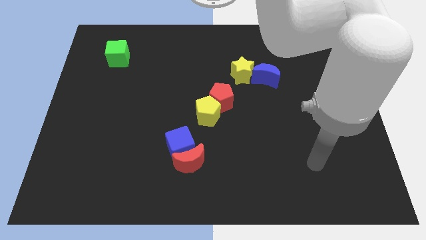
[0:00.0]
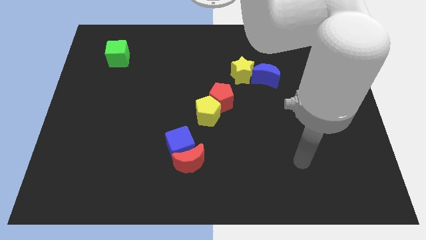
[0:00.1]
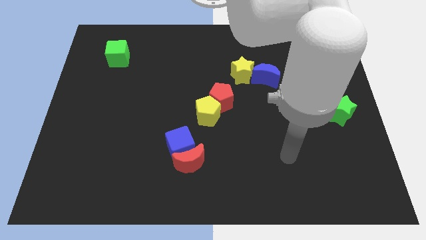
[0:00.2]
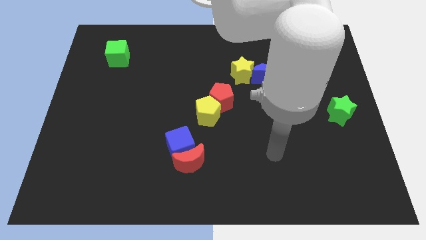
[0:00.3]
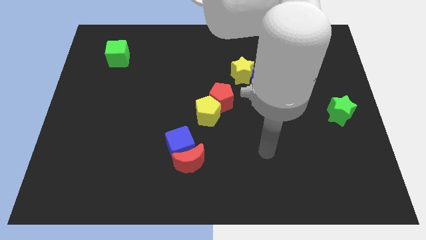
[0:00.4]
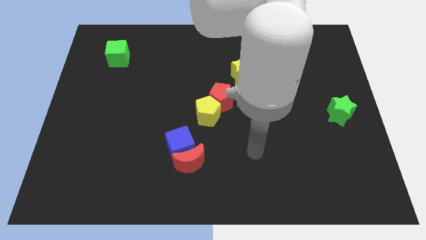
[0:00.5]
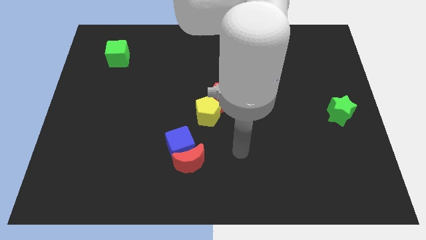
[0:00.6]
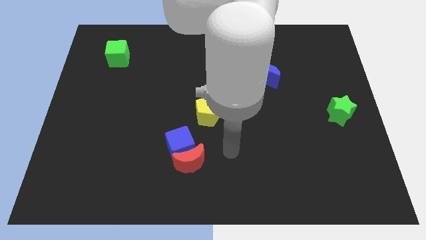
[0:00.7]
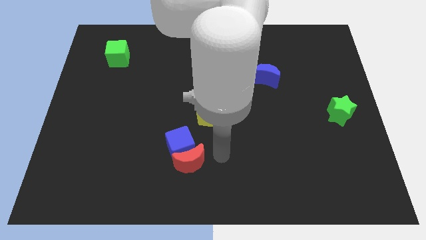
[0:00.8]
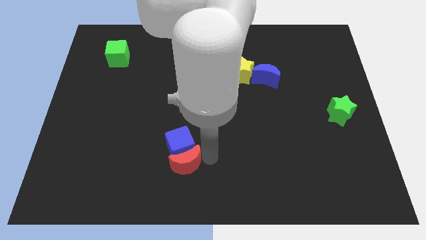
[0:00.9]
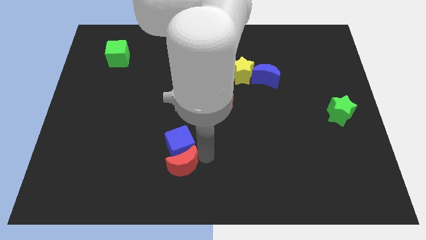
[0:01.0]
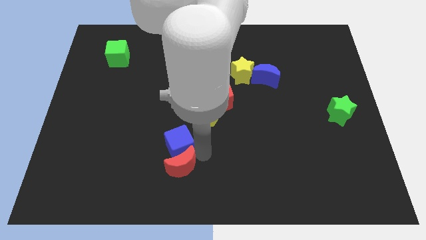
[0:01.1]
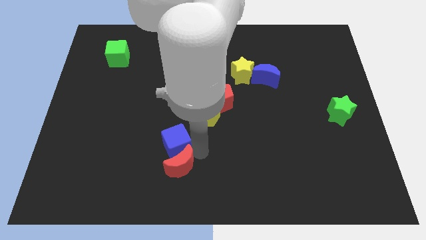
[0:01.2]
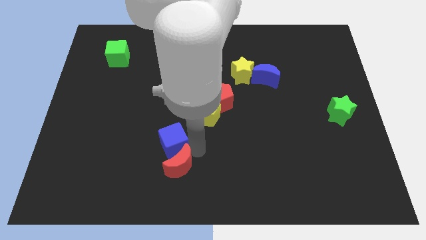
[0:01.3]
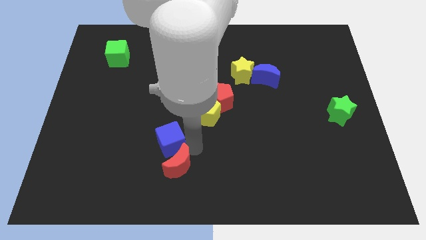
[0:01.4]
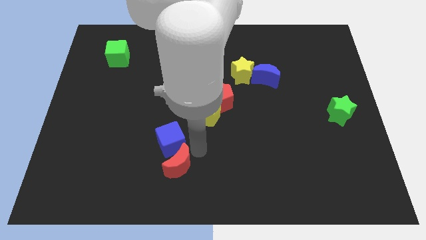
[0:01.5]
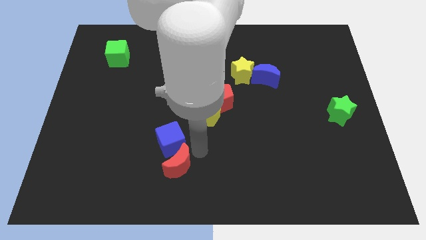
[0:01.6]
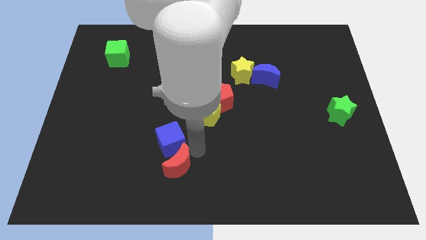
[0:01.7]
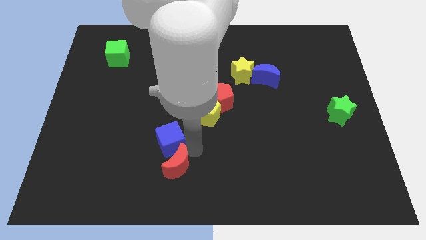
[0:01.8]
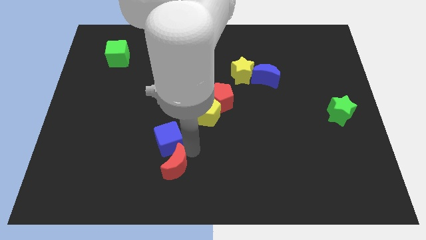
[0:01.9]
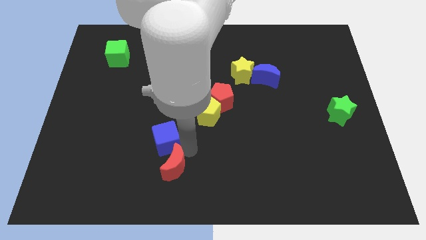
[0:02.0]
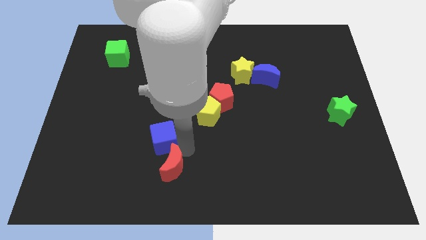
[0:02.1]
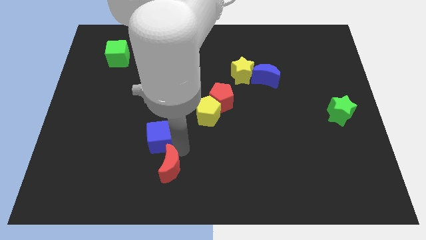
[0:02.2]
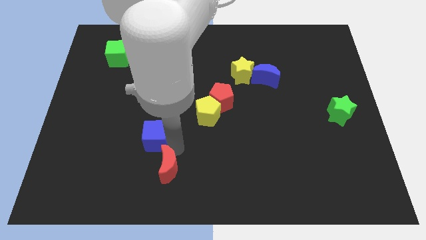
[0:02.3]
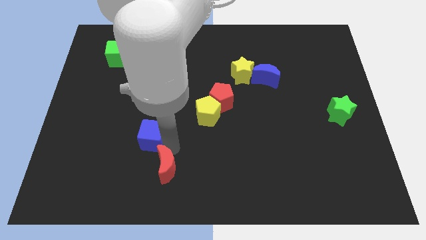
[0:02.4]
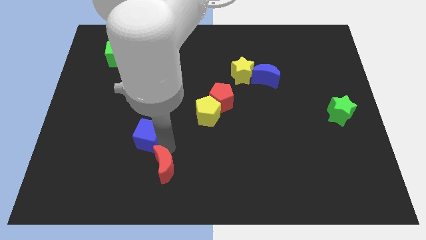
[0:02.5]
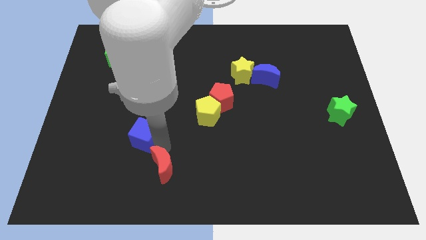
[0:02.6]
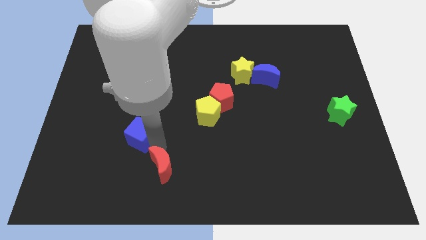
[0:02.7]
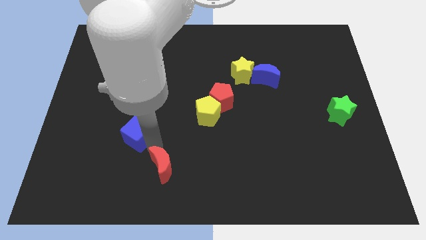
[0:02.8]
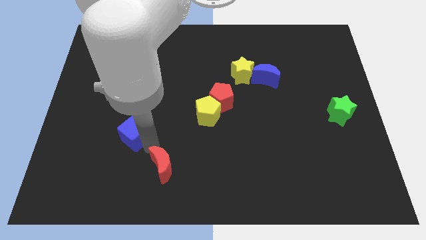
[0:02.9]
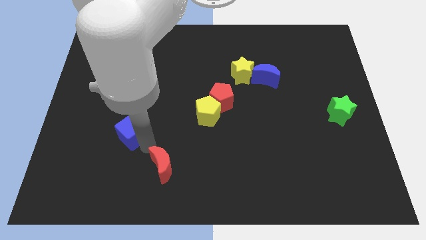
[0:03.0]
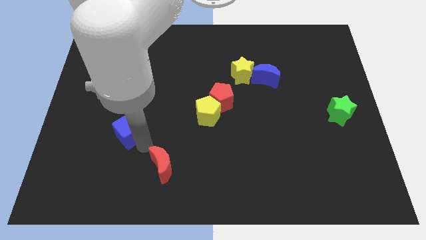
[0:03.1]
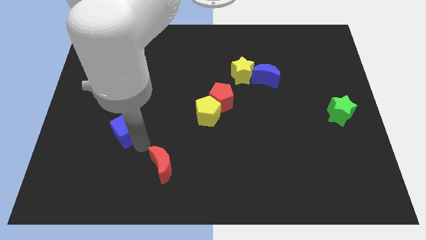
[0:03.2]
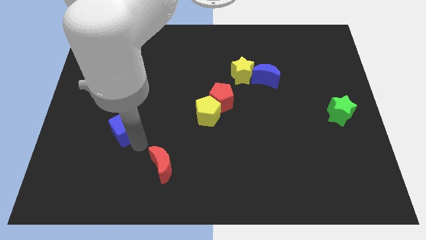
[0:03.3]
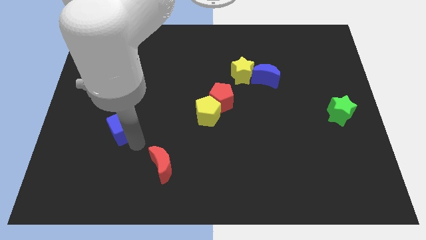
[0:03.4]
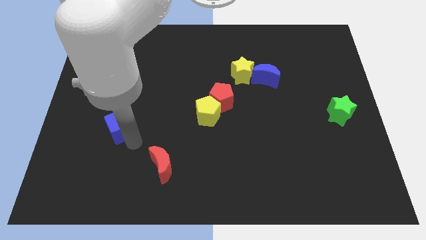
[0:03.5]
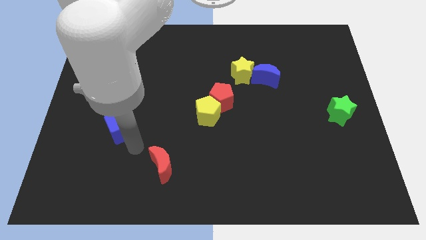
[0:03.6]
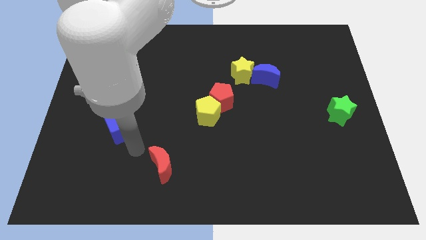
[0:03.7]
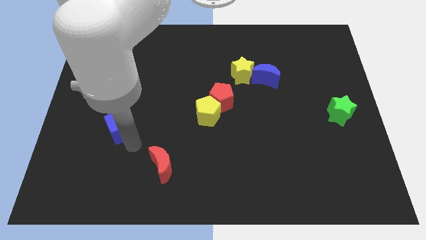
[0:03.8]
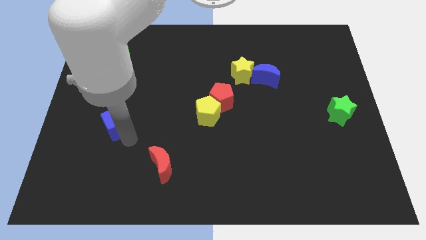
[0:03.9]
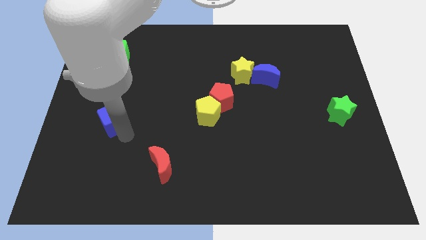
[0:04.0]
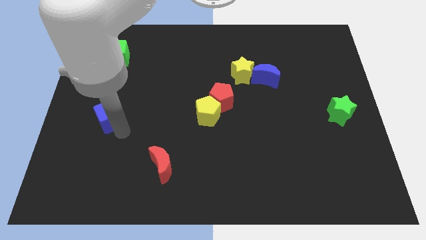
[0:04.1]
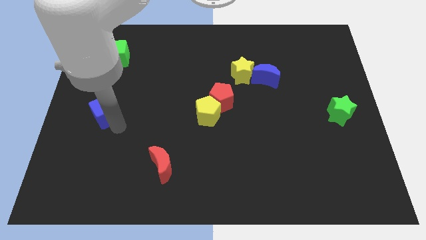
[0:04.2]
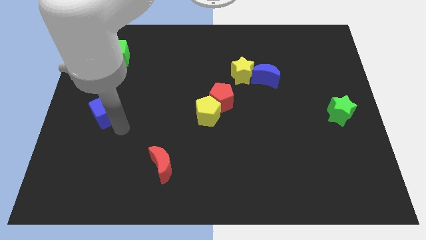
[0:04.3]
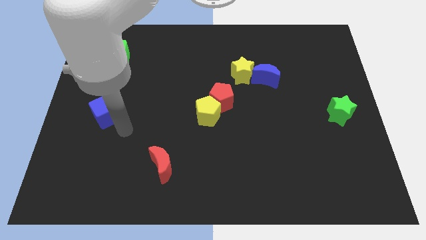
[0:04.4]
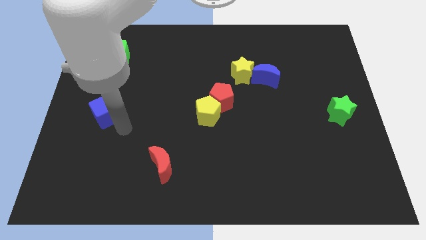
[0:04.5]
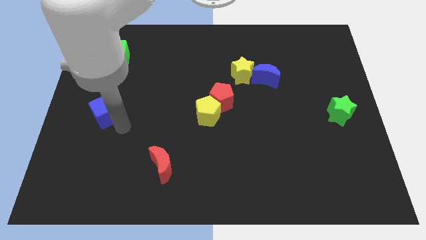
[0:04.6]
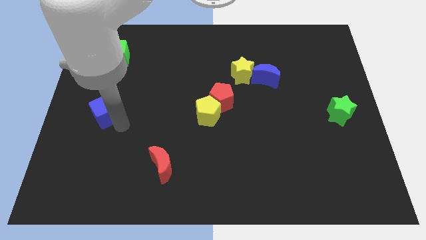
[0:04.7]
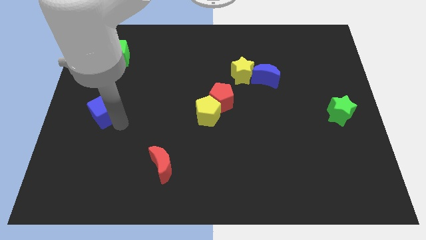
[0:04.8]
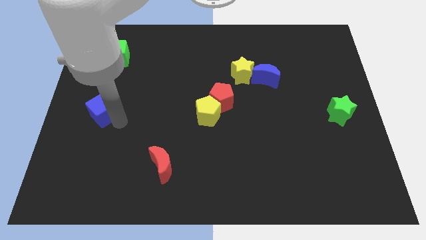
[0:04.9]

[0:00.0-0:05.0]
slide the blue cube to the left side
